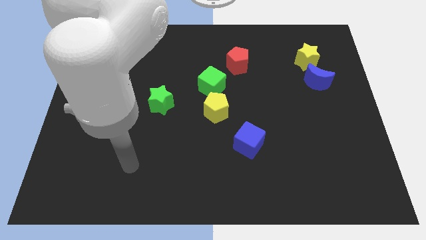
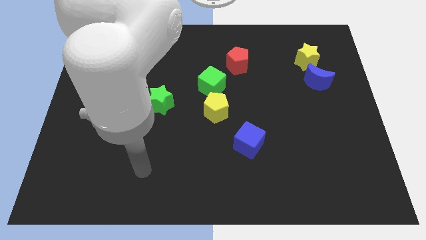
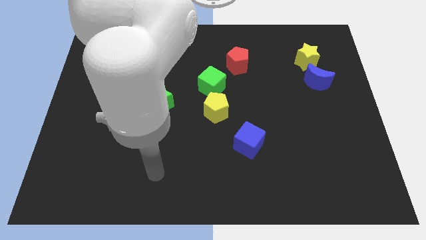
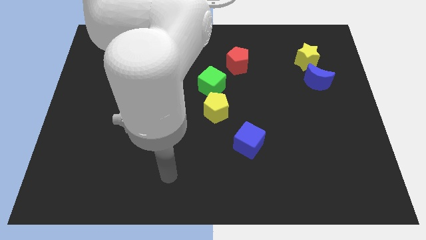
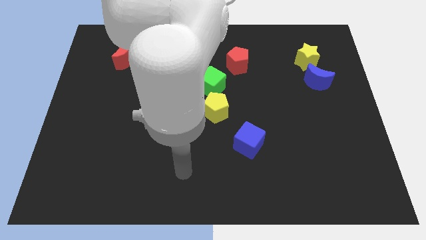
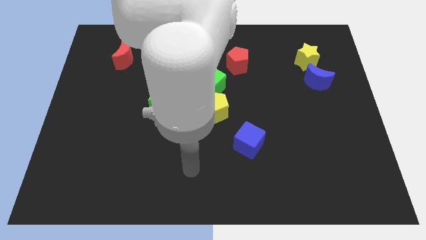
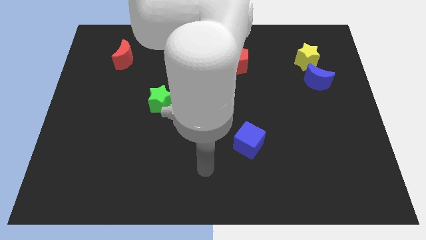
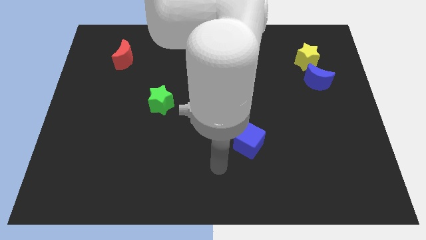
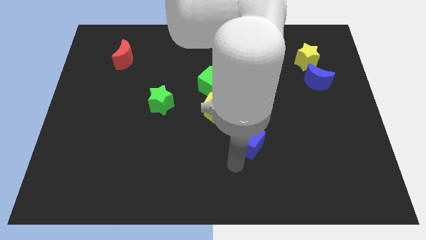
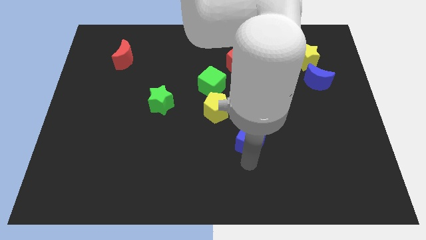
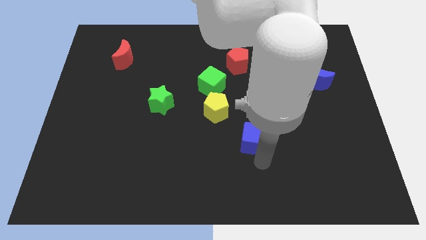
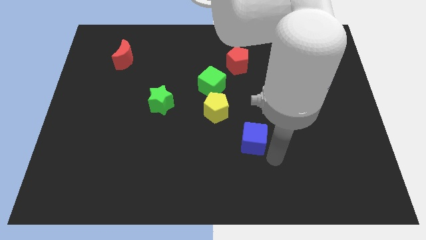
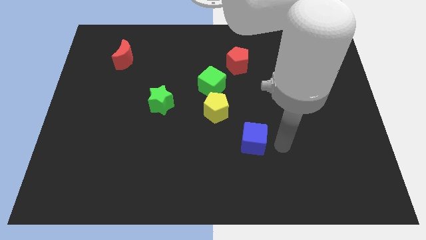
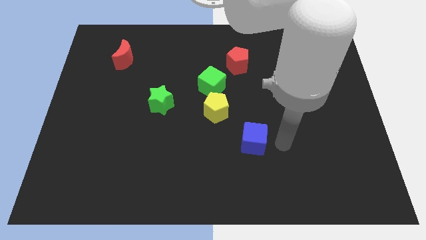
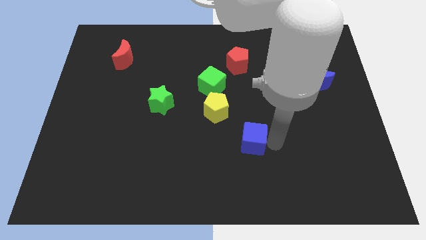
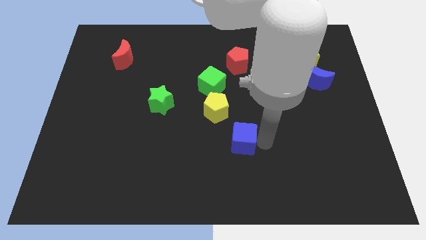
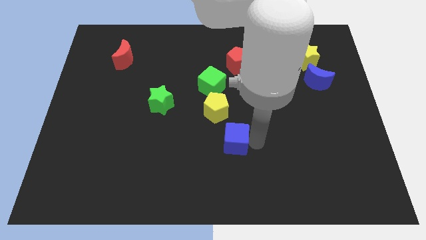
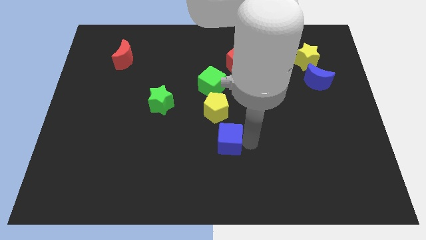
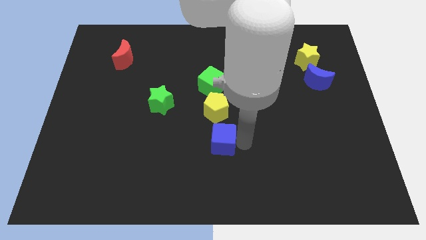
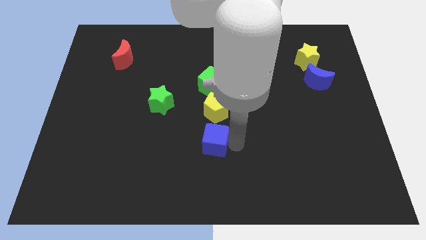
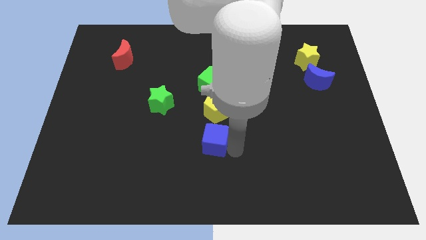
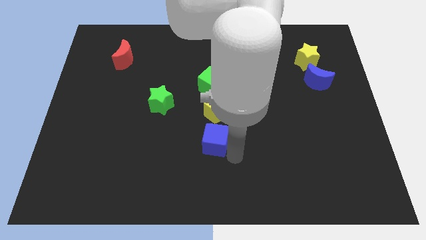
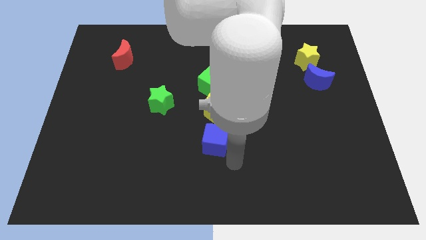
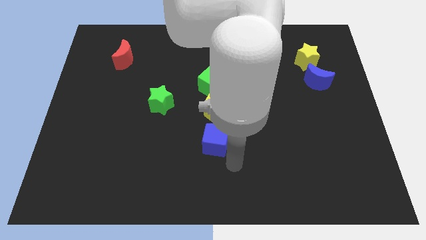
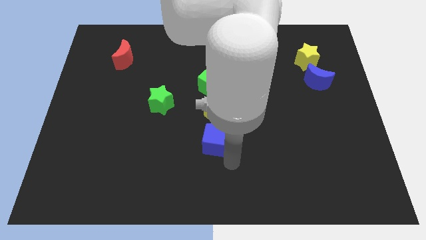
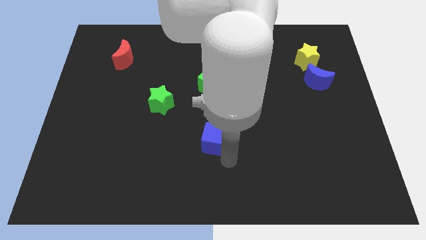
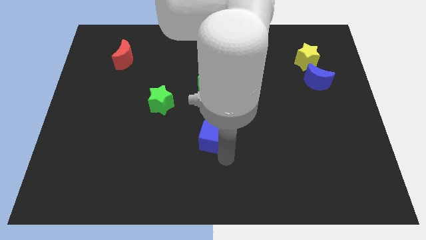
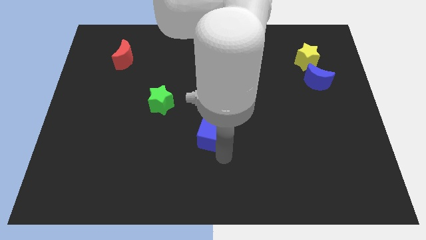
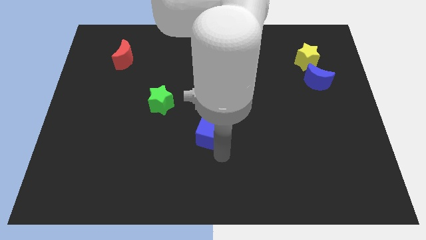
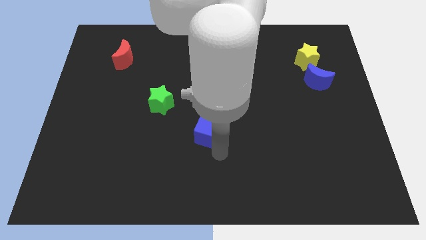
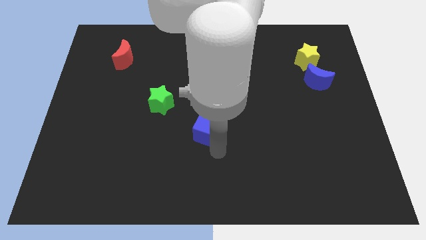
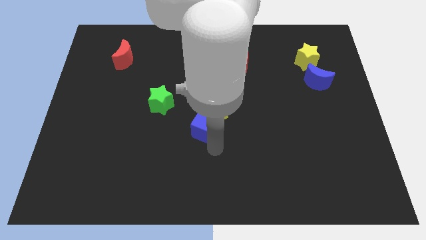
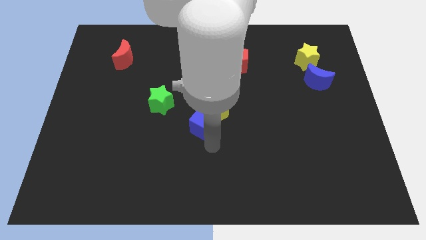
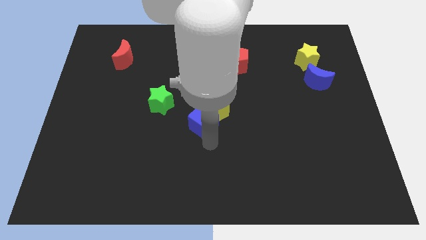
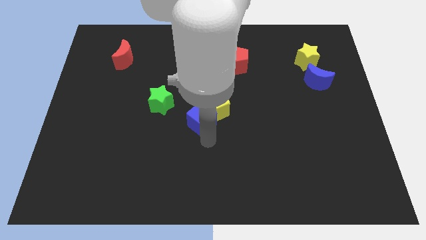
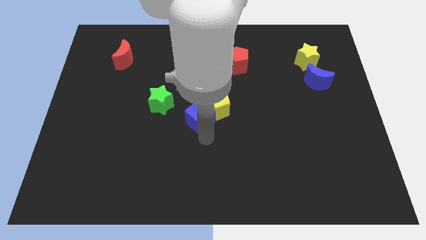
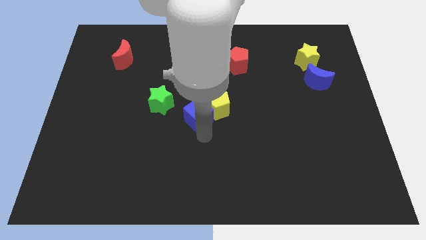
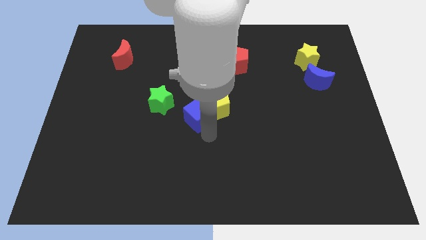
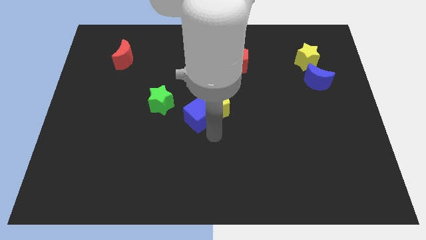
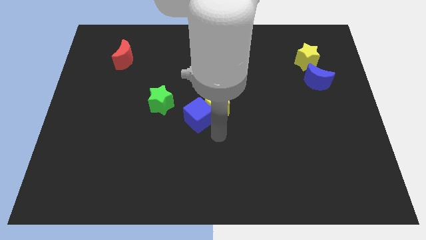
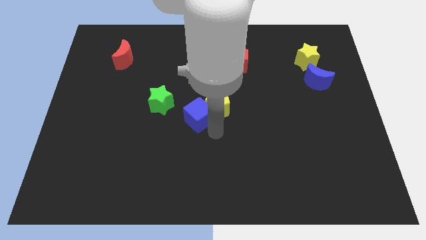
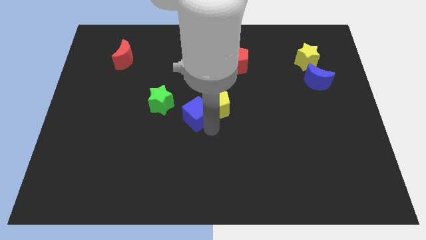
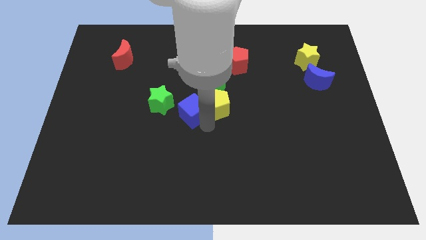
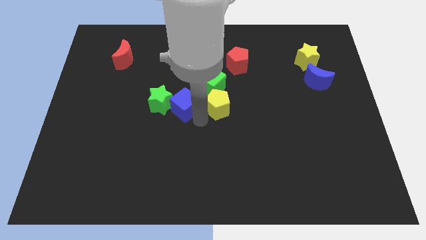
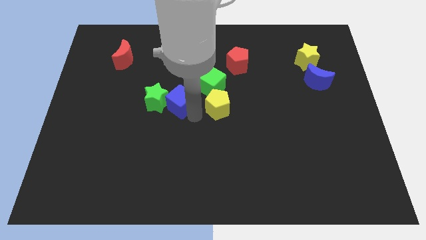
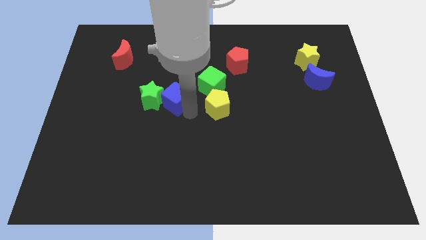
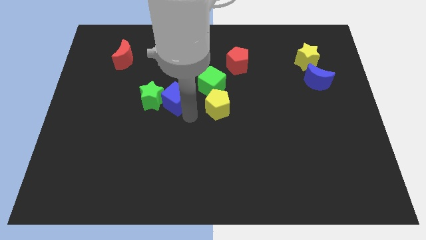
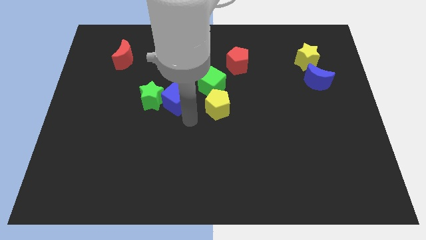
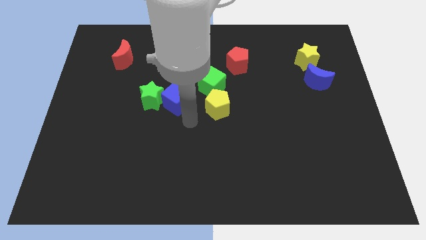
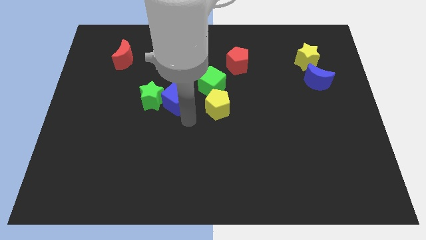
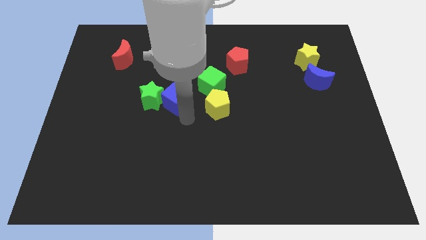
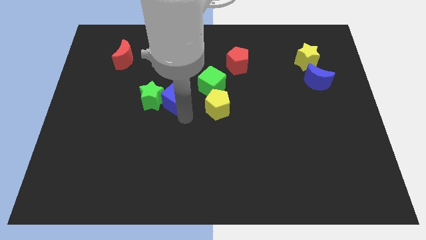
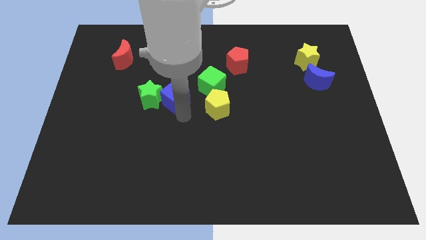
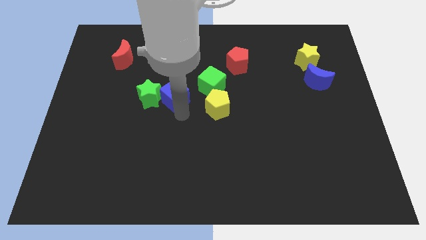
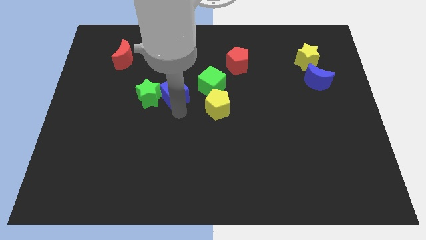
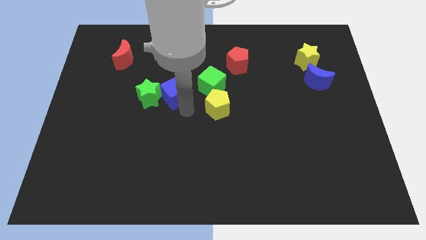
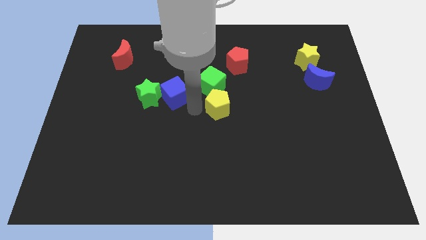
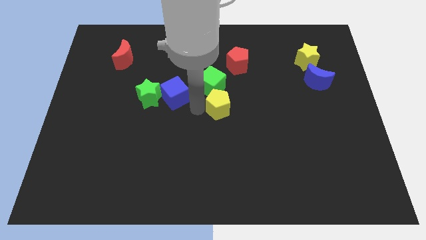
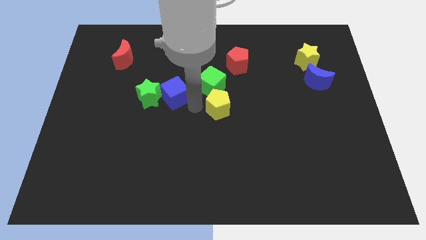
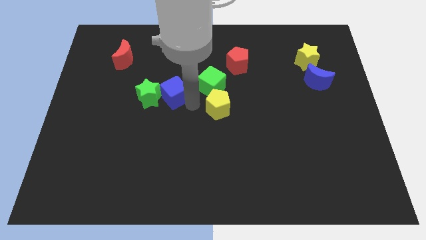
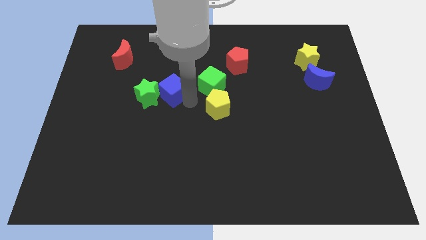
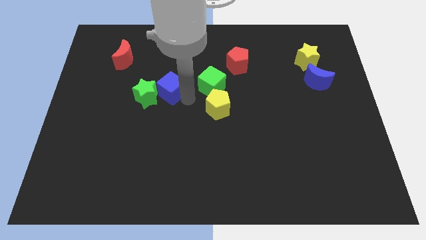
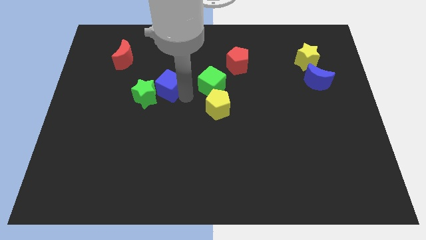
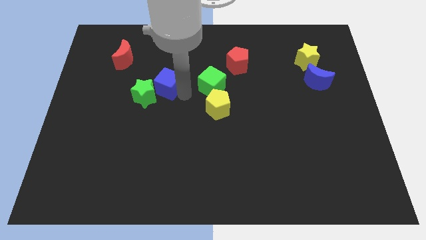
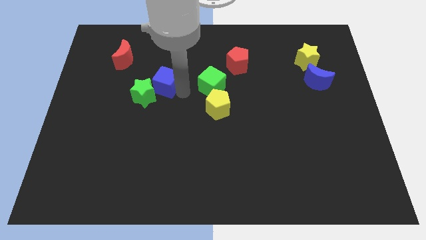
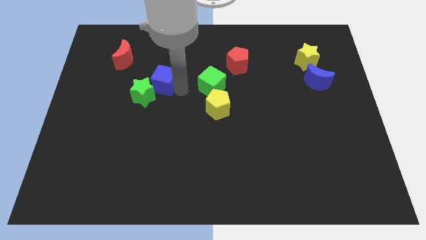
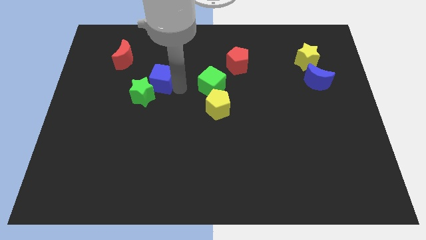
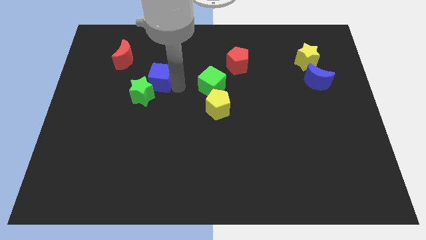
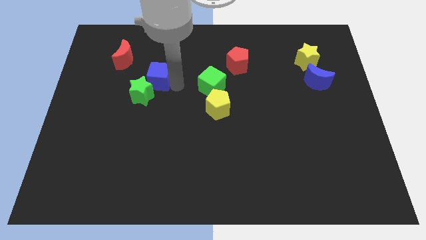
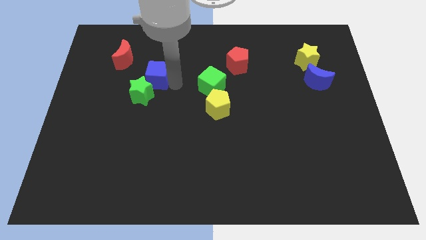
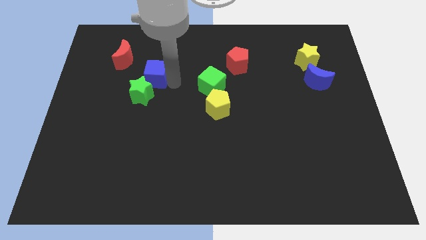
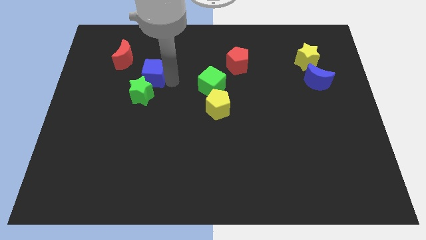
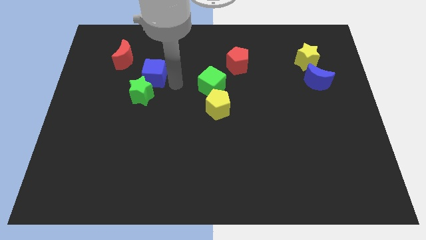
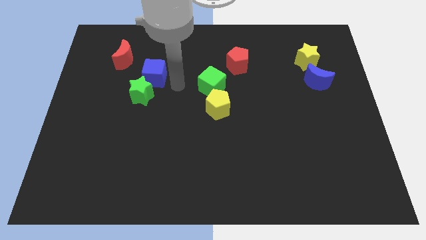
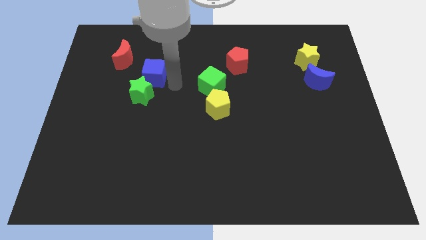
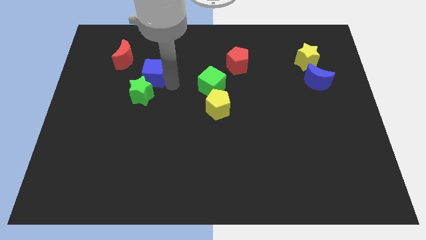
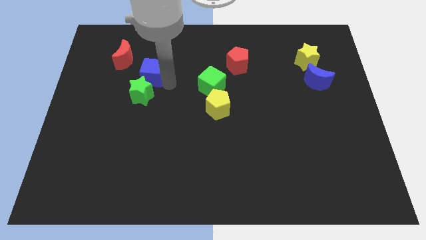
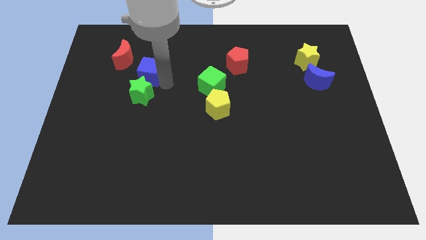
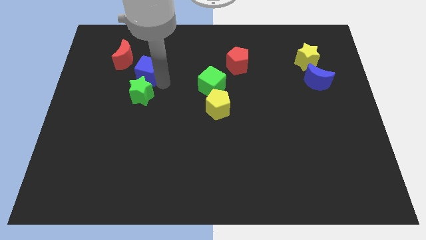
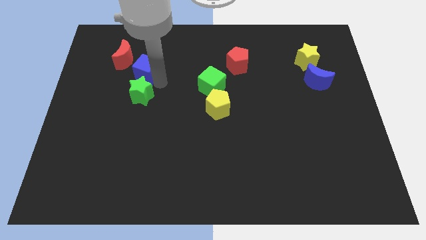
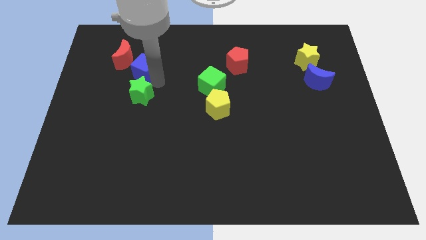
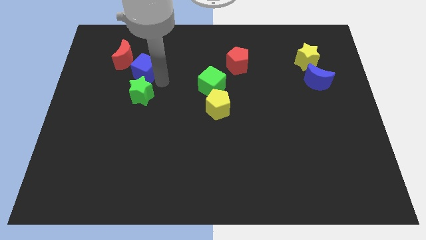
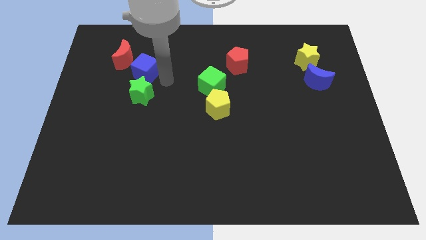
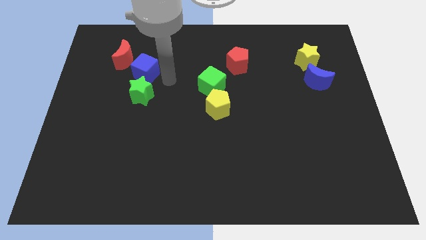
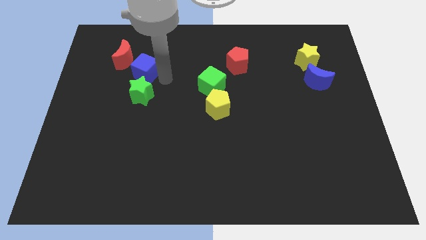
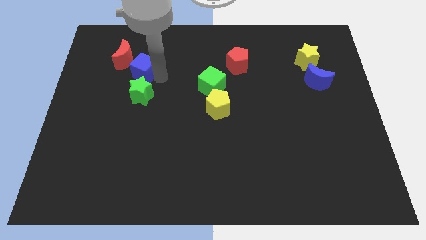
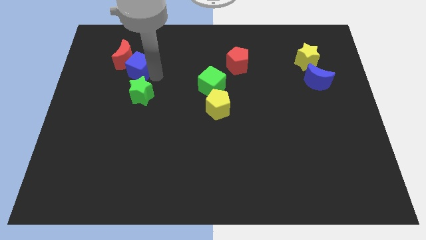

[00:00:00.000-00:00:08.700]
slide the blue cube next to the red moon
